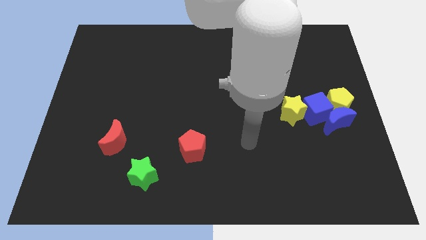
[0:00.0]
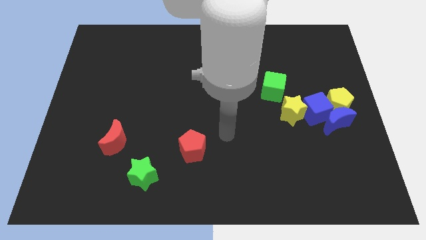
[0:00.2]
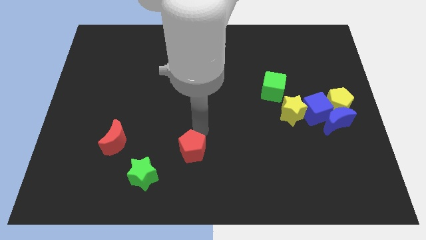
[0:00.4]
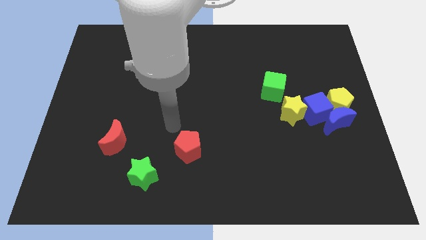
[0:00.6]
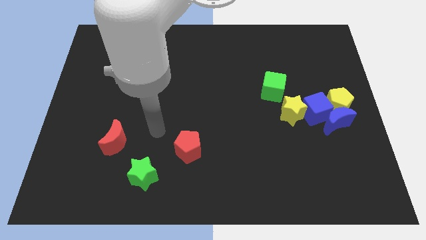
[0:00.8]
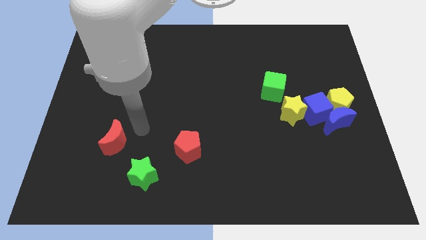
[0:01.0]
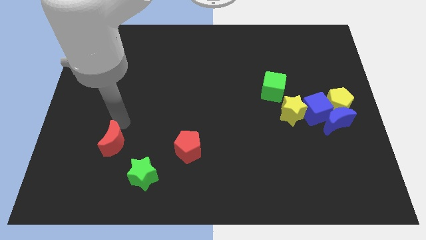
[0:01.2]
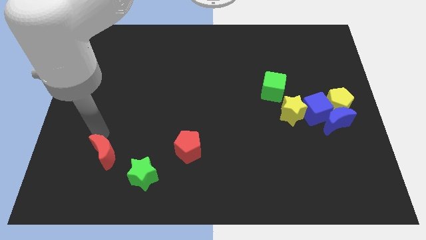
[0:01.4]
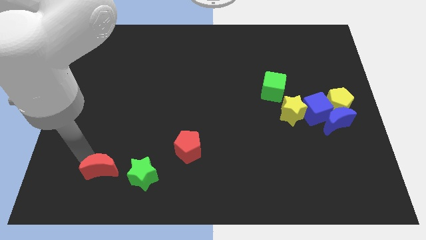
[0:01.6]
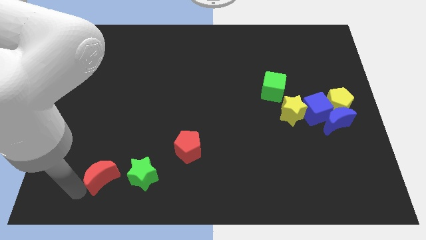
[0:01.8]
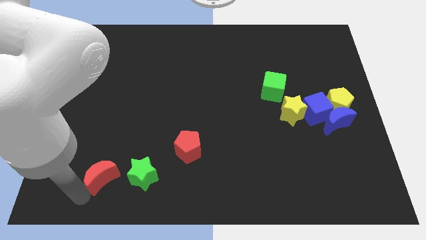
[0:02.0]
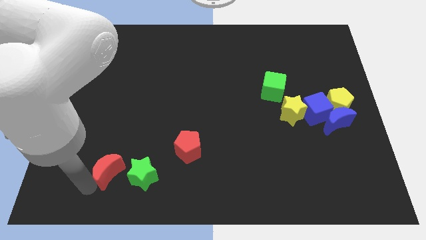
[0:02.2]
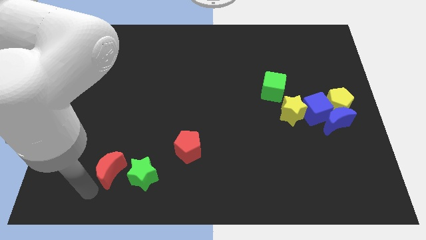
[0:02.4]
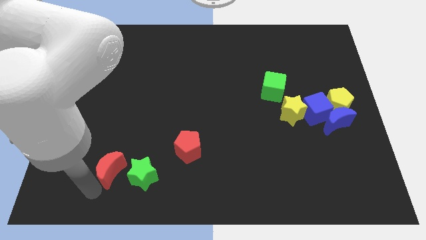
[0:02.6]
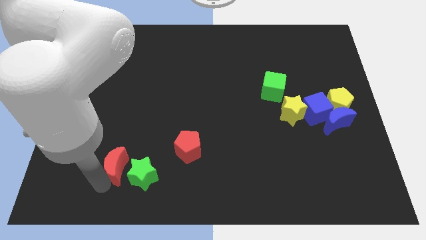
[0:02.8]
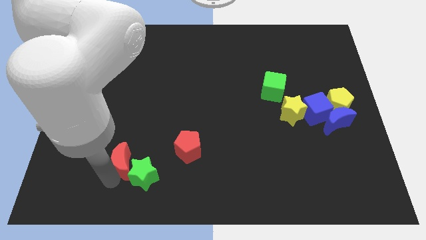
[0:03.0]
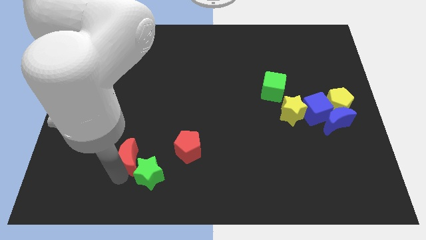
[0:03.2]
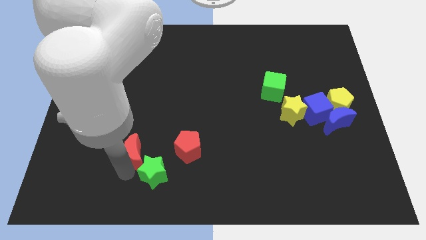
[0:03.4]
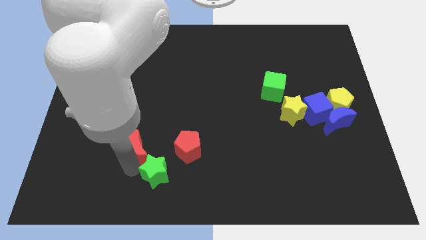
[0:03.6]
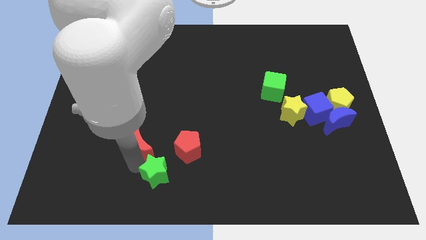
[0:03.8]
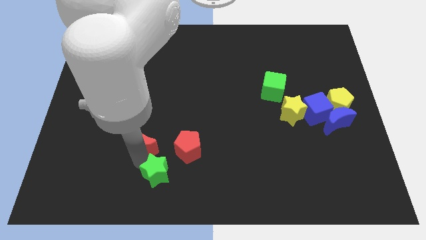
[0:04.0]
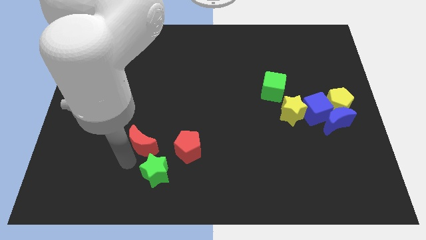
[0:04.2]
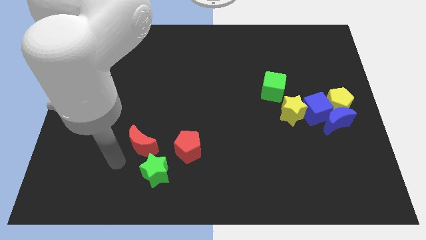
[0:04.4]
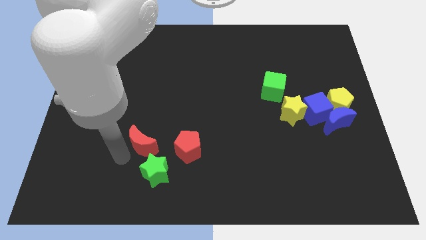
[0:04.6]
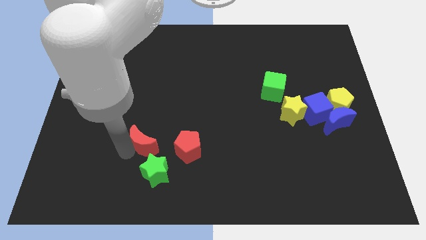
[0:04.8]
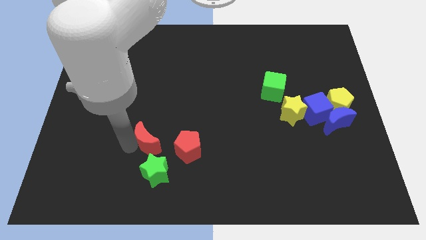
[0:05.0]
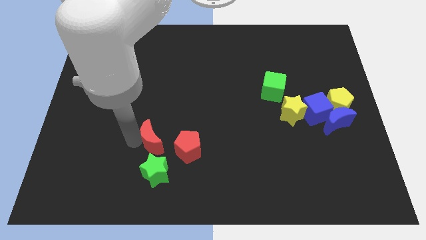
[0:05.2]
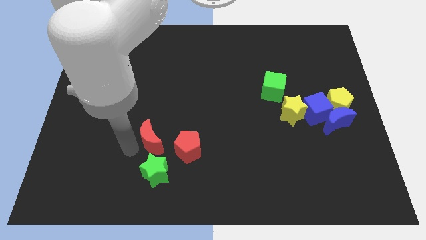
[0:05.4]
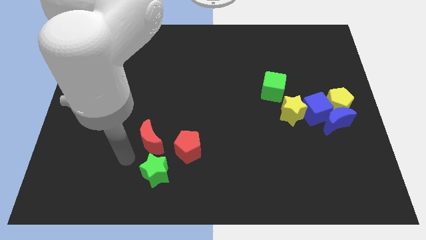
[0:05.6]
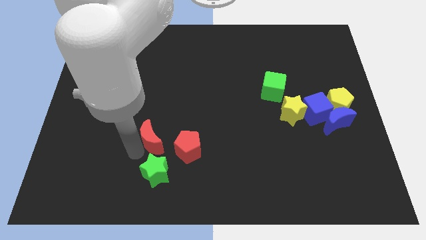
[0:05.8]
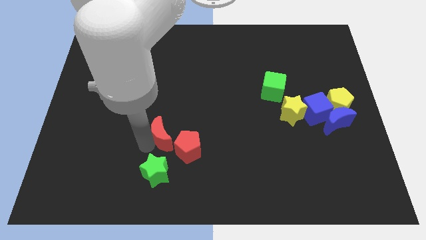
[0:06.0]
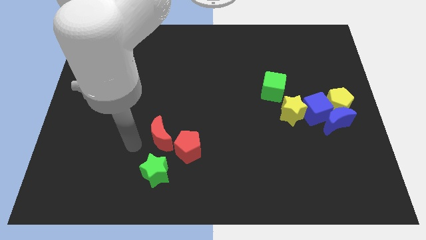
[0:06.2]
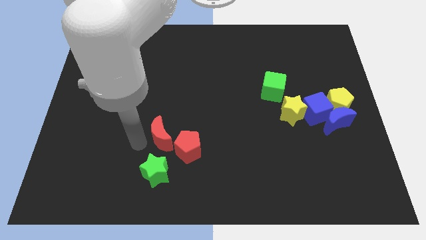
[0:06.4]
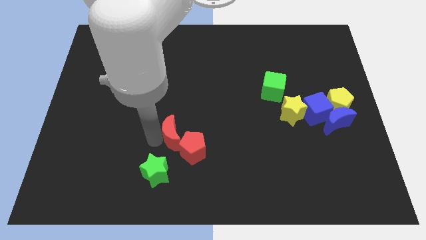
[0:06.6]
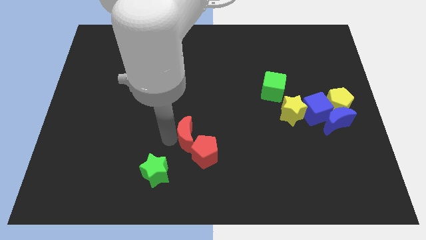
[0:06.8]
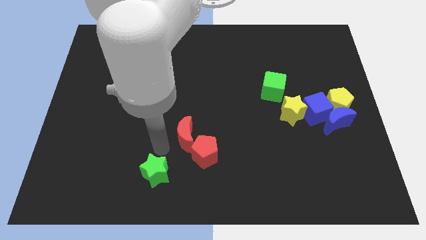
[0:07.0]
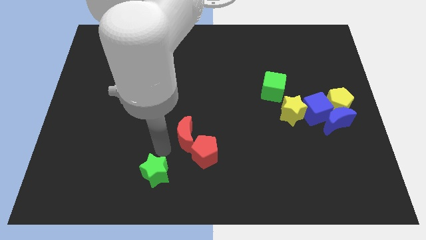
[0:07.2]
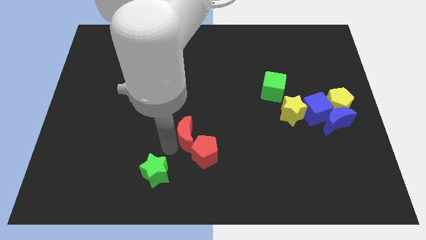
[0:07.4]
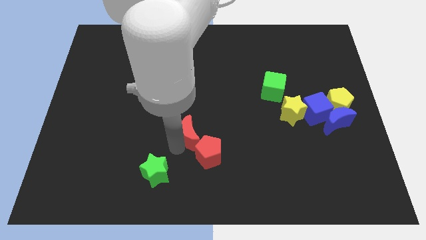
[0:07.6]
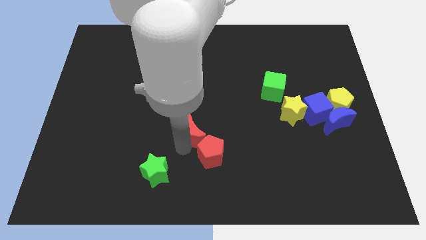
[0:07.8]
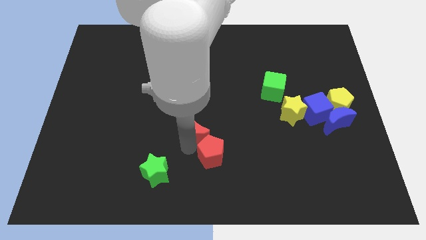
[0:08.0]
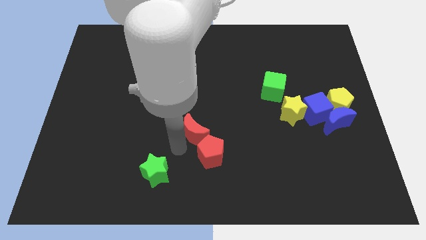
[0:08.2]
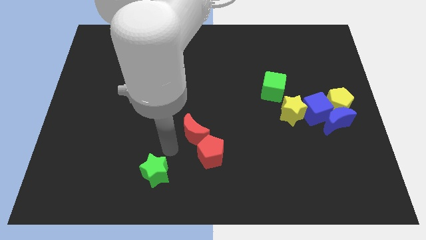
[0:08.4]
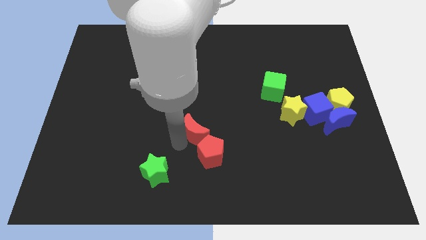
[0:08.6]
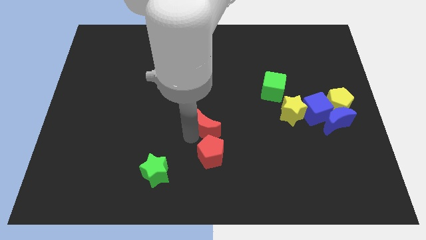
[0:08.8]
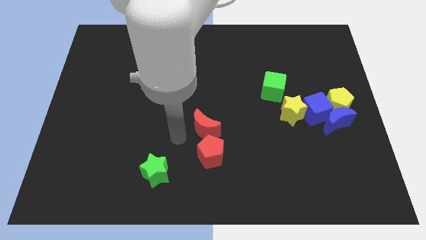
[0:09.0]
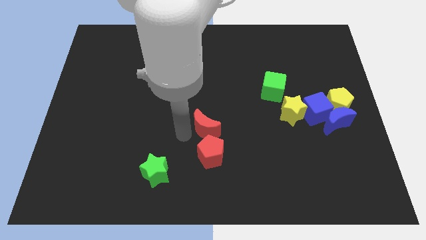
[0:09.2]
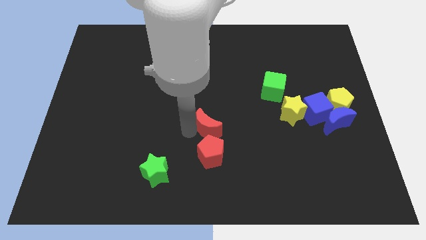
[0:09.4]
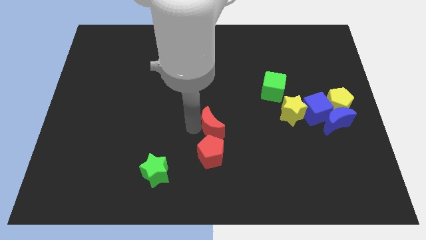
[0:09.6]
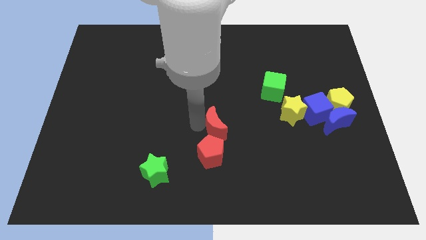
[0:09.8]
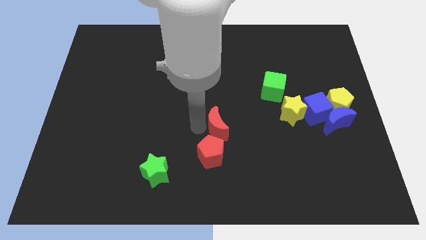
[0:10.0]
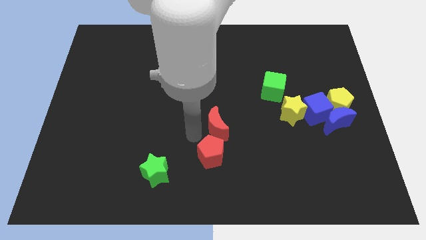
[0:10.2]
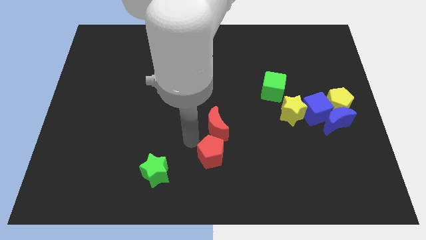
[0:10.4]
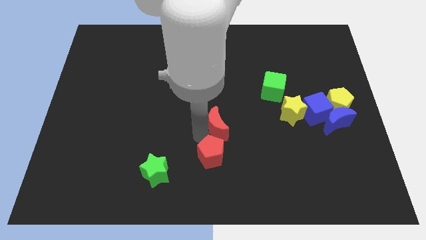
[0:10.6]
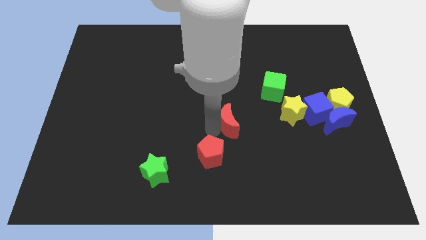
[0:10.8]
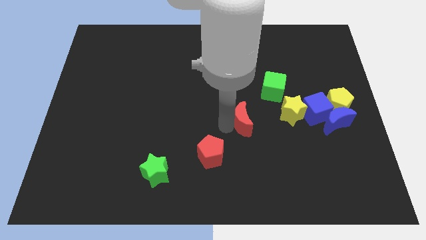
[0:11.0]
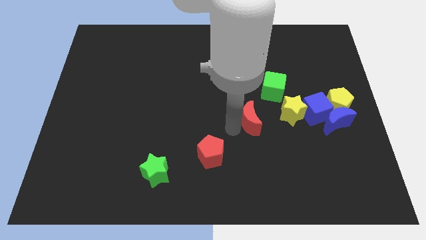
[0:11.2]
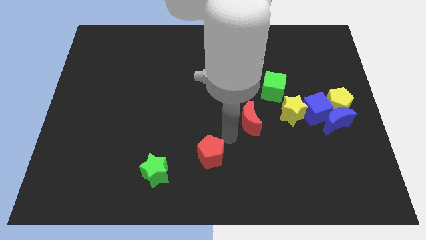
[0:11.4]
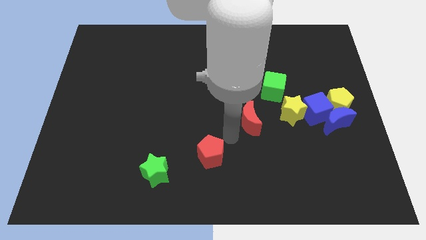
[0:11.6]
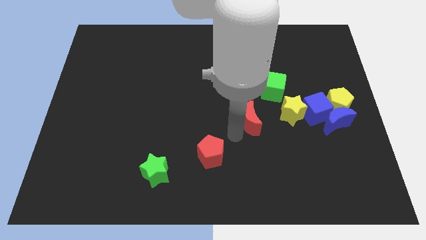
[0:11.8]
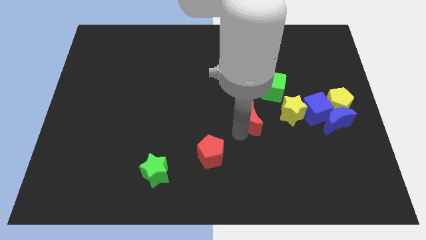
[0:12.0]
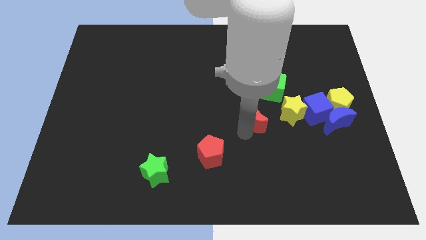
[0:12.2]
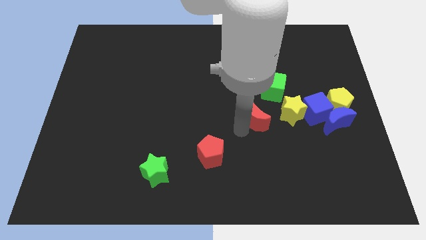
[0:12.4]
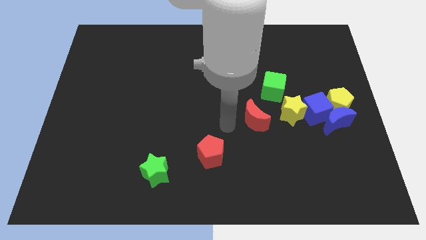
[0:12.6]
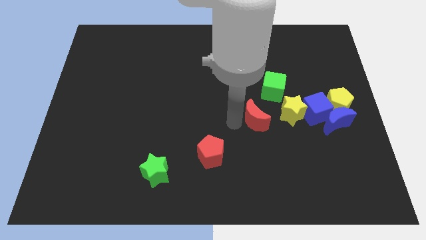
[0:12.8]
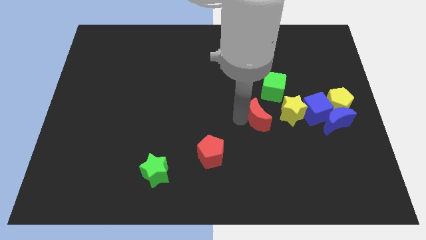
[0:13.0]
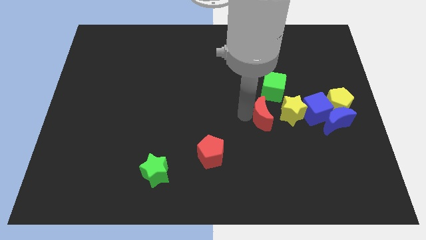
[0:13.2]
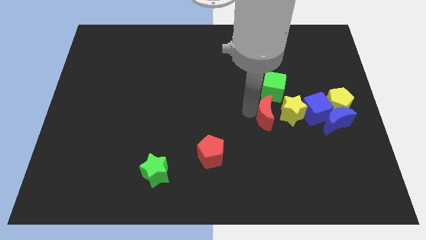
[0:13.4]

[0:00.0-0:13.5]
put the red moon towards the yellow star
